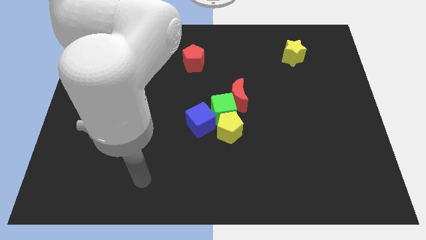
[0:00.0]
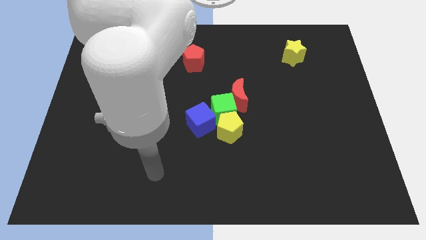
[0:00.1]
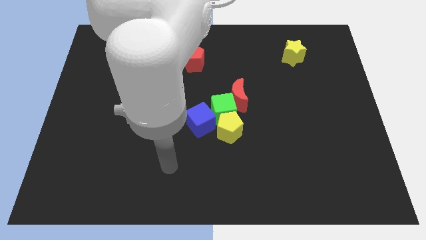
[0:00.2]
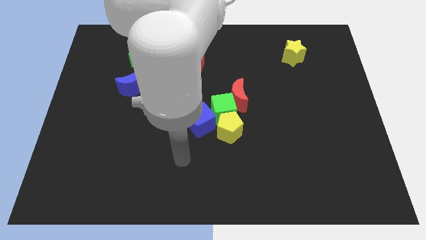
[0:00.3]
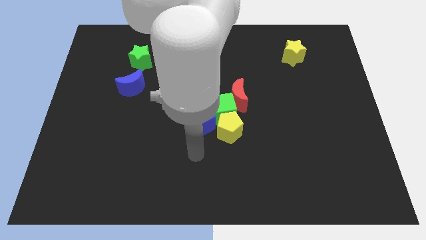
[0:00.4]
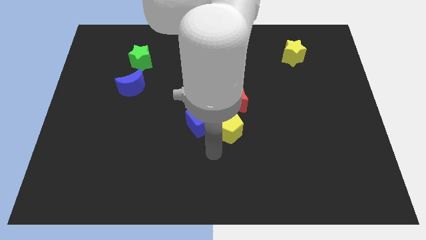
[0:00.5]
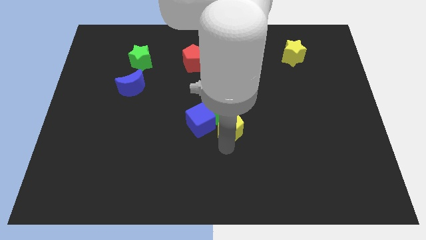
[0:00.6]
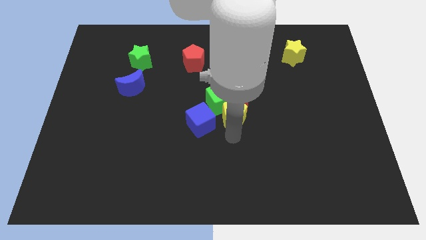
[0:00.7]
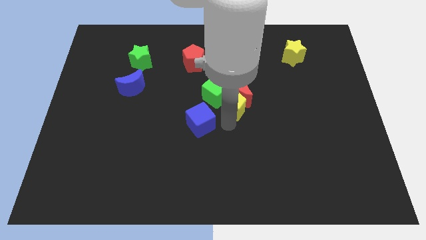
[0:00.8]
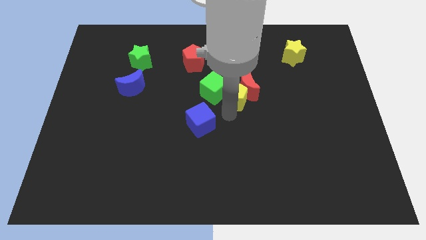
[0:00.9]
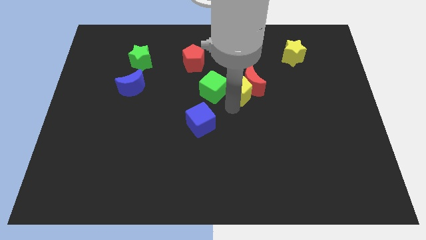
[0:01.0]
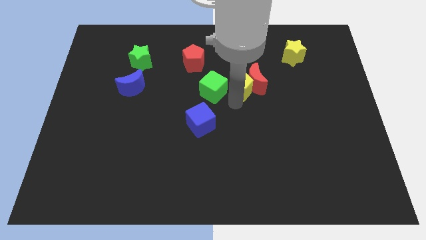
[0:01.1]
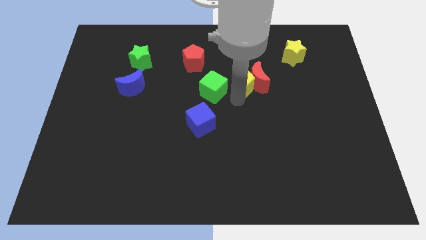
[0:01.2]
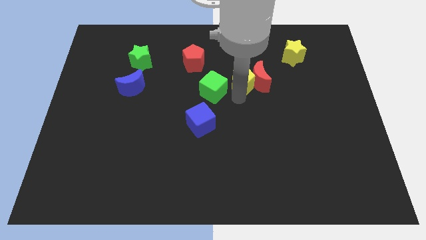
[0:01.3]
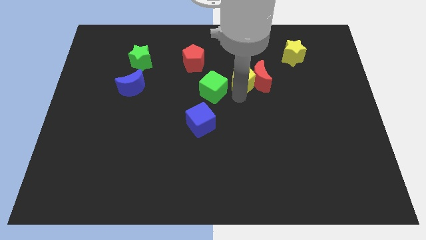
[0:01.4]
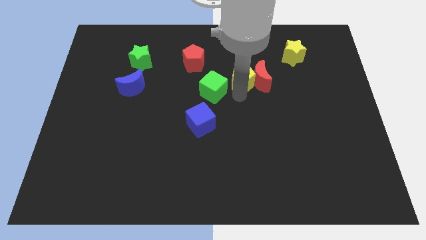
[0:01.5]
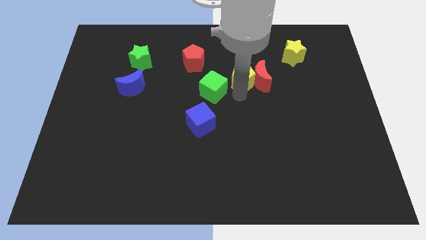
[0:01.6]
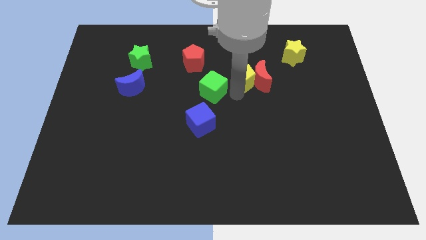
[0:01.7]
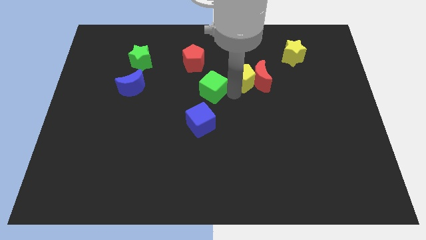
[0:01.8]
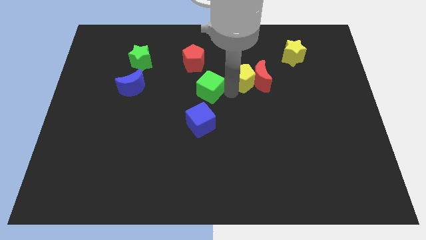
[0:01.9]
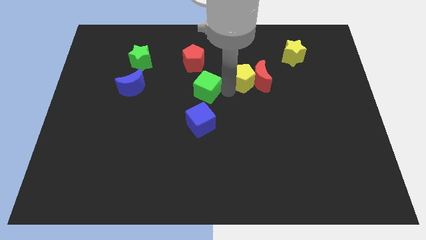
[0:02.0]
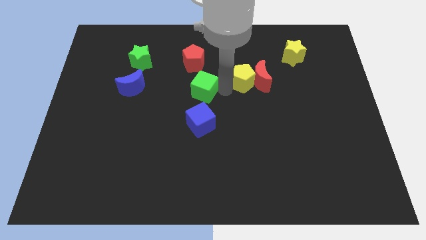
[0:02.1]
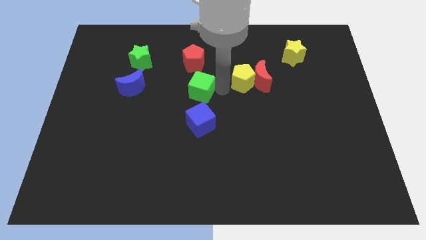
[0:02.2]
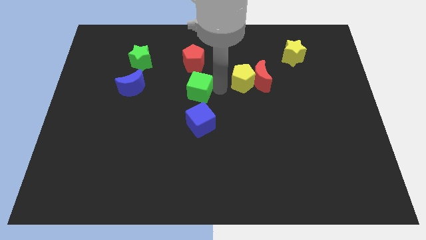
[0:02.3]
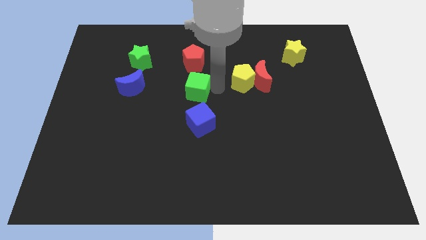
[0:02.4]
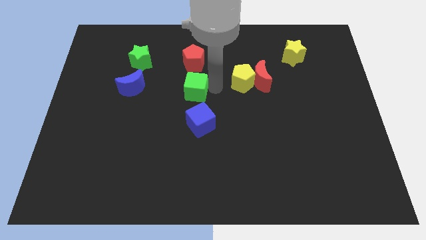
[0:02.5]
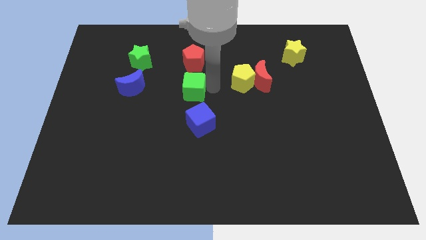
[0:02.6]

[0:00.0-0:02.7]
pull the green cube apart from the red moon, yellow pentagon, and blue cube

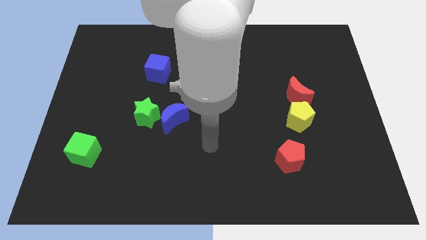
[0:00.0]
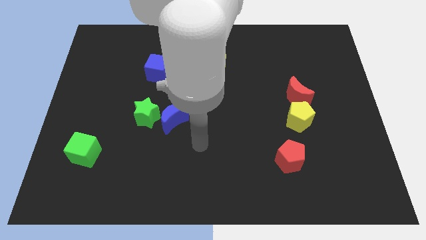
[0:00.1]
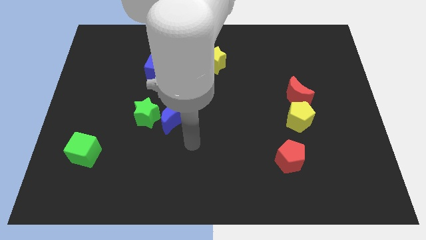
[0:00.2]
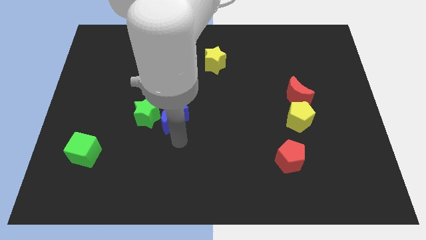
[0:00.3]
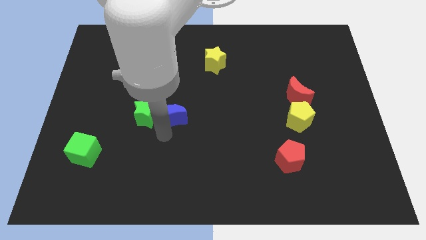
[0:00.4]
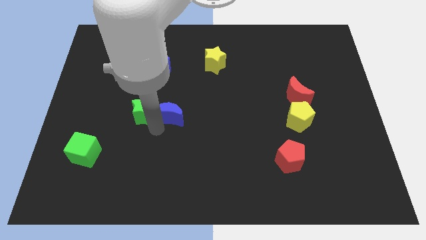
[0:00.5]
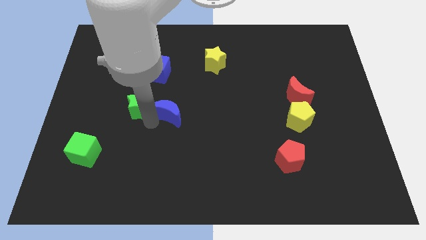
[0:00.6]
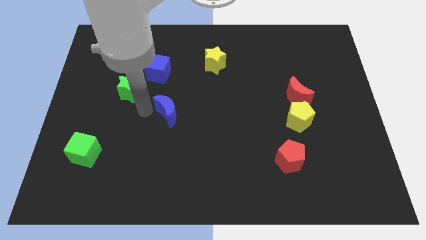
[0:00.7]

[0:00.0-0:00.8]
separate the blue moon from the green star

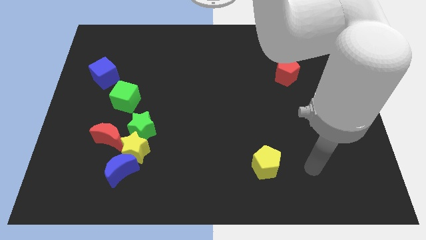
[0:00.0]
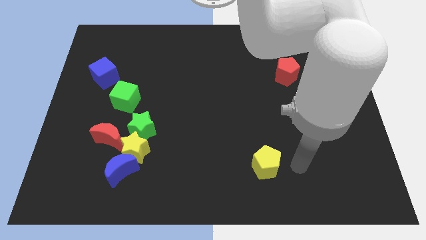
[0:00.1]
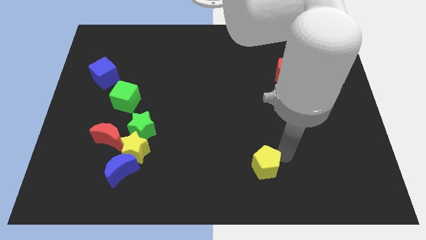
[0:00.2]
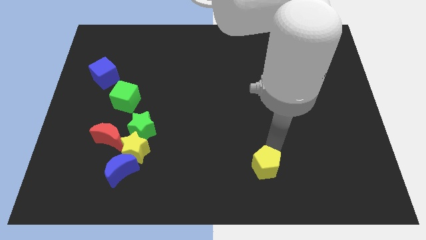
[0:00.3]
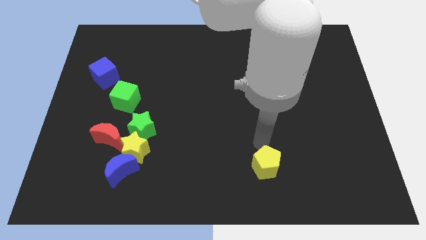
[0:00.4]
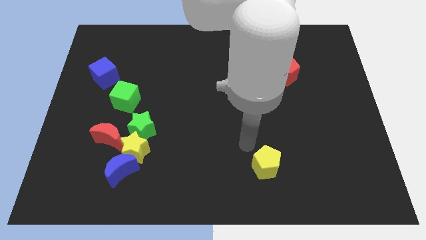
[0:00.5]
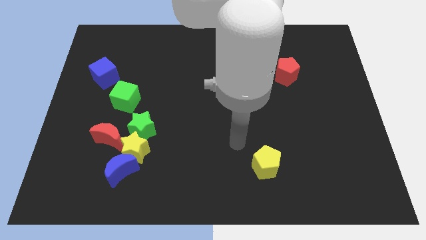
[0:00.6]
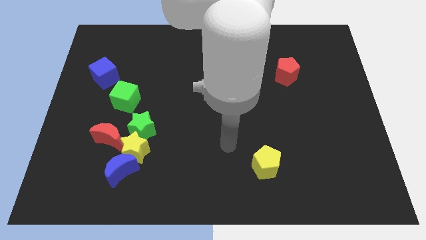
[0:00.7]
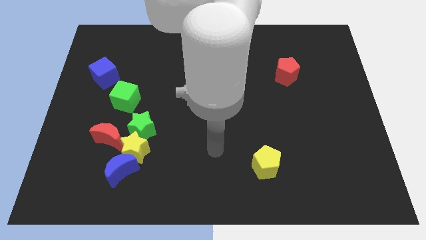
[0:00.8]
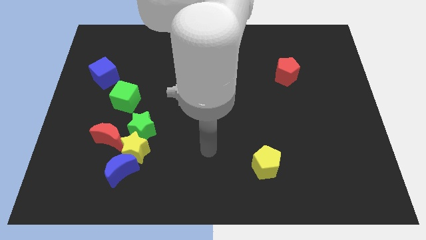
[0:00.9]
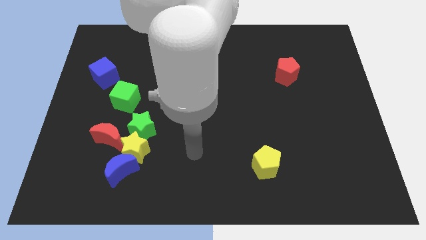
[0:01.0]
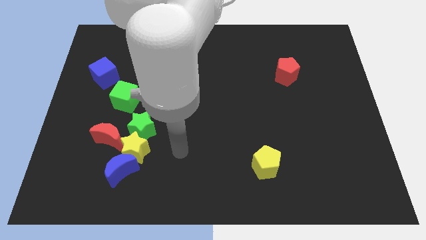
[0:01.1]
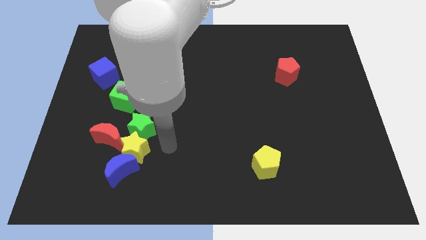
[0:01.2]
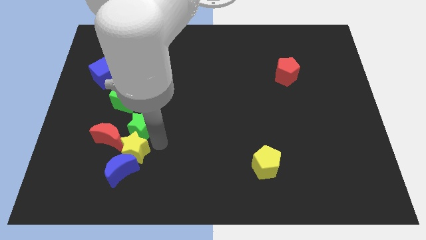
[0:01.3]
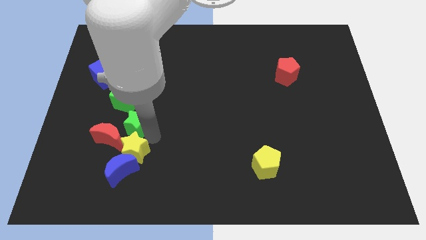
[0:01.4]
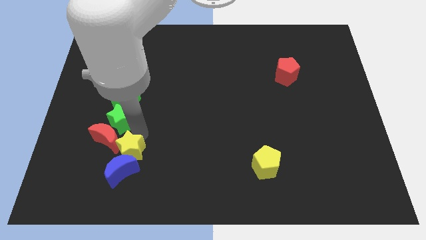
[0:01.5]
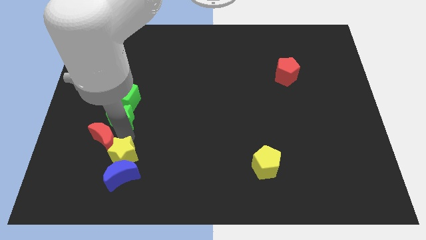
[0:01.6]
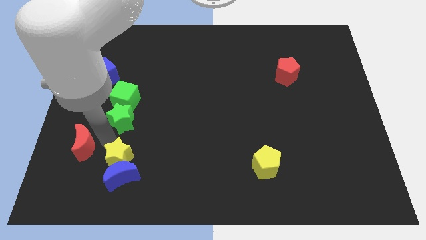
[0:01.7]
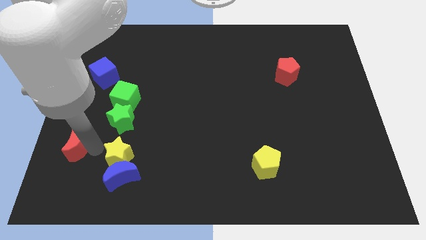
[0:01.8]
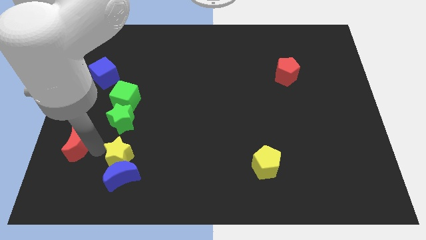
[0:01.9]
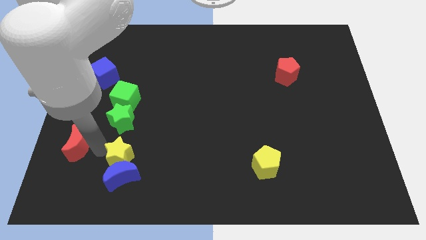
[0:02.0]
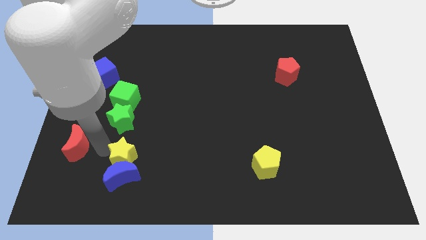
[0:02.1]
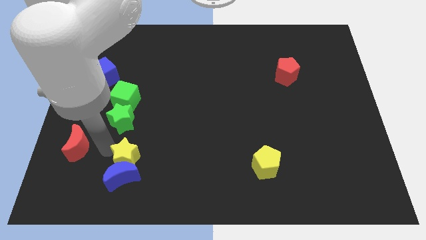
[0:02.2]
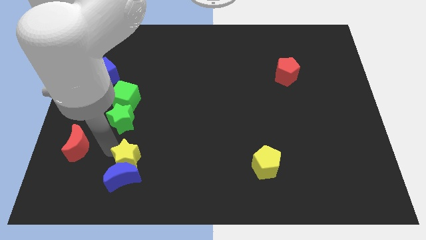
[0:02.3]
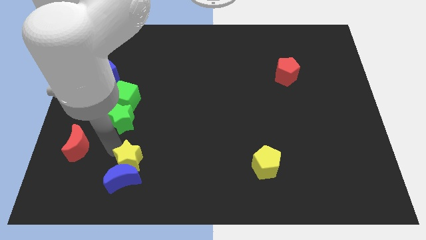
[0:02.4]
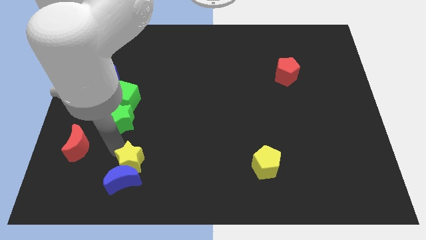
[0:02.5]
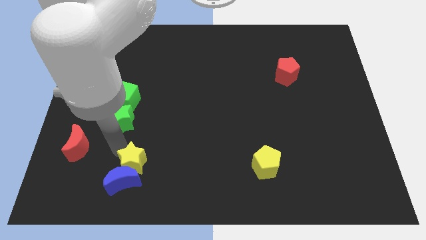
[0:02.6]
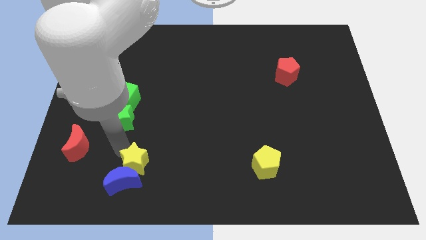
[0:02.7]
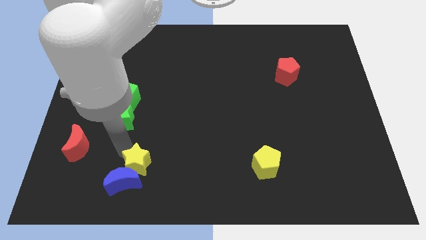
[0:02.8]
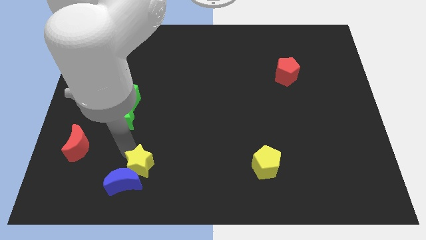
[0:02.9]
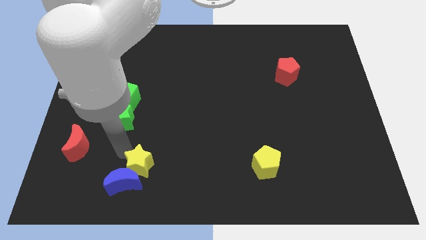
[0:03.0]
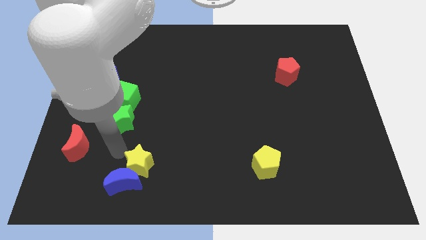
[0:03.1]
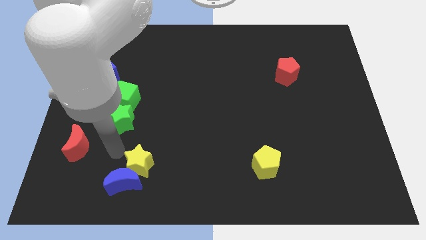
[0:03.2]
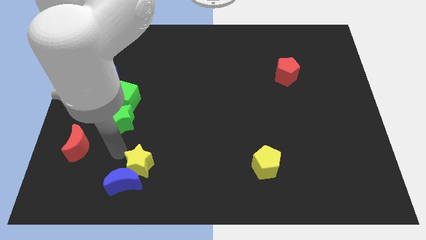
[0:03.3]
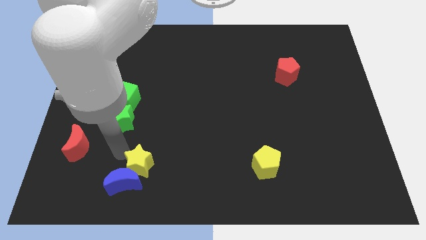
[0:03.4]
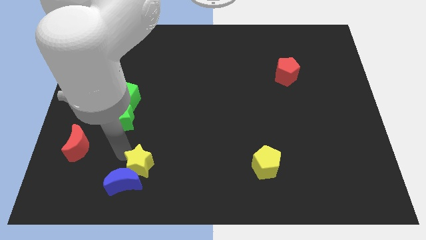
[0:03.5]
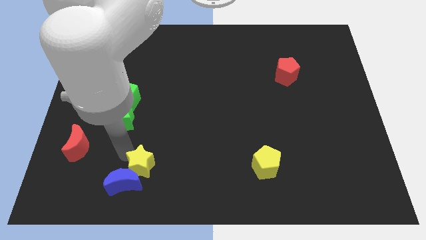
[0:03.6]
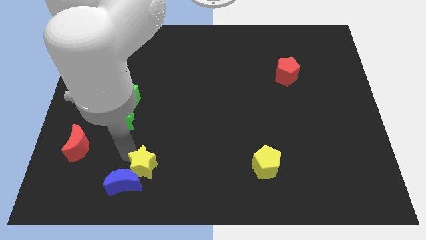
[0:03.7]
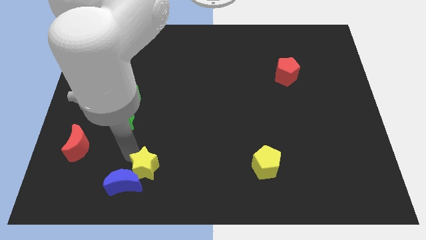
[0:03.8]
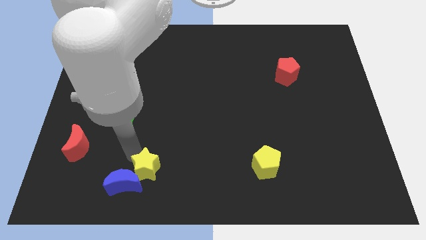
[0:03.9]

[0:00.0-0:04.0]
move the yellow star away from the blue moon, green star, and red moon

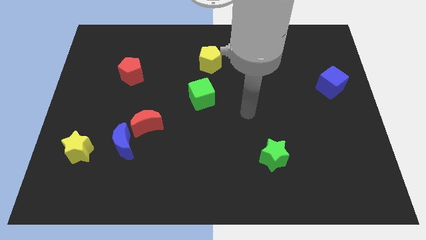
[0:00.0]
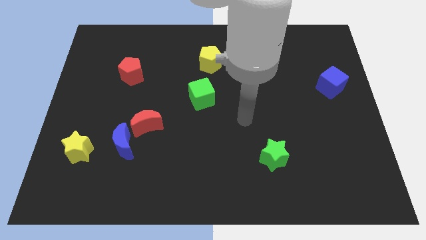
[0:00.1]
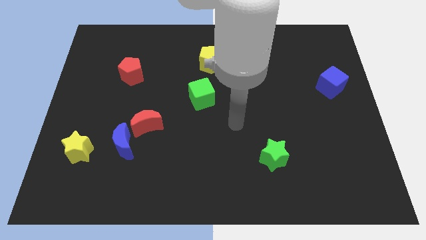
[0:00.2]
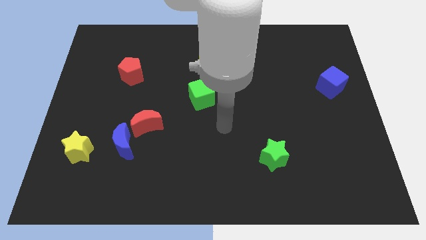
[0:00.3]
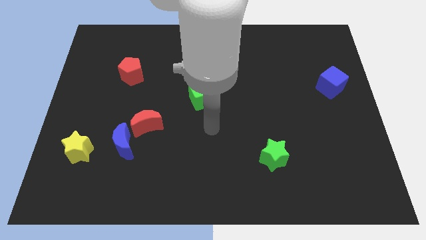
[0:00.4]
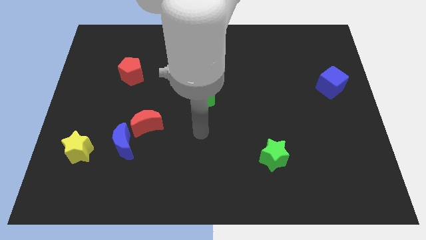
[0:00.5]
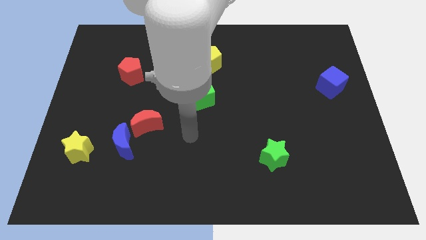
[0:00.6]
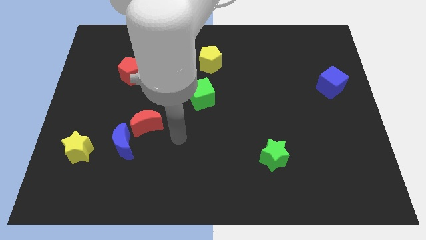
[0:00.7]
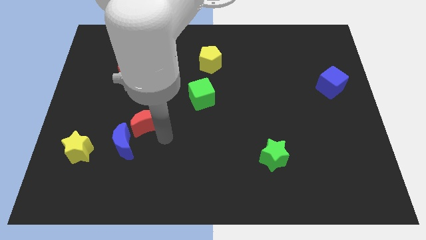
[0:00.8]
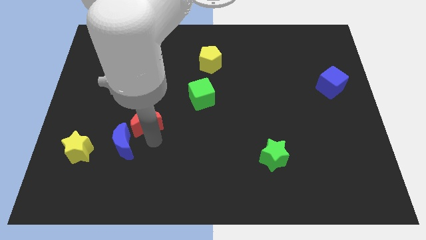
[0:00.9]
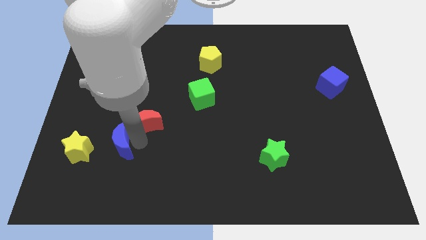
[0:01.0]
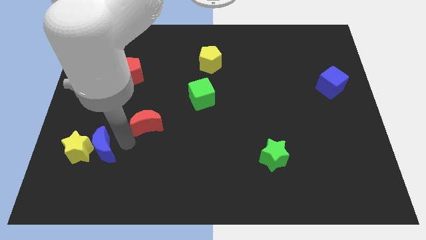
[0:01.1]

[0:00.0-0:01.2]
separate the red moon from the blue moon

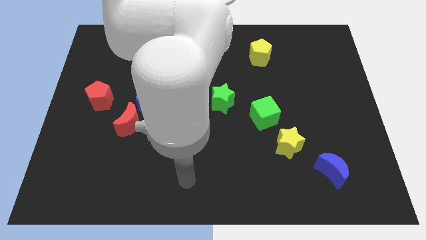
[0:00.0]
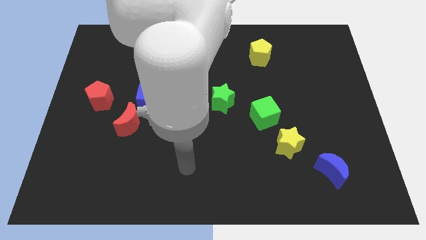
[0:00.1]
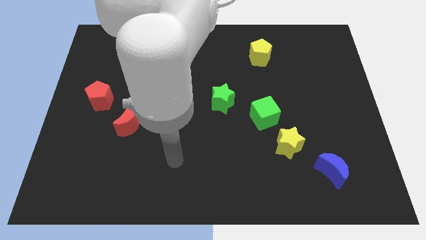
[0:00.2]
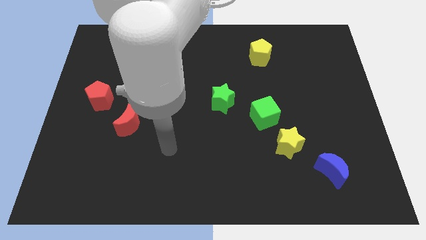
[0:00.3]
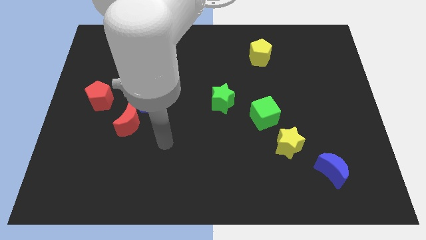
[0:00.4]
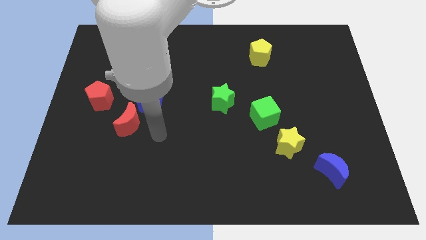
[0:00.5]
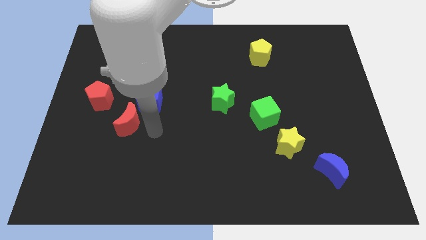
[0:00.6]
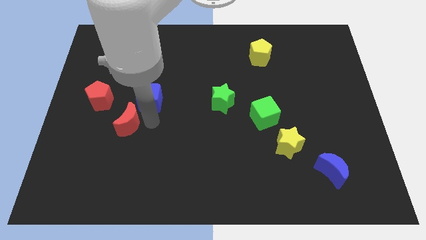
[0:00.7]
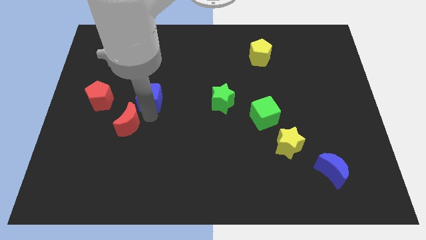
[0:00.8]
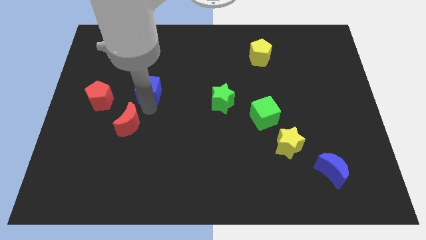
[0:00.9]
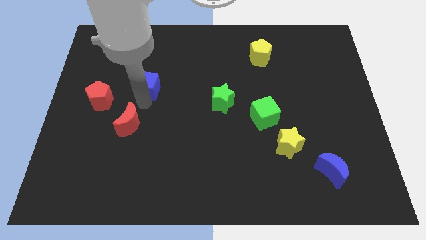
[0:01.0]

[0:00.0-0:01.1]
separate the red moon from the blue cube
